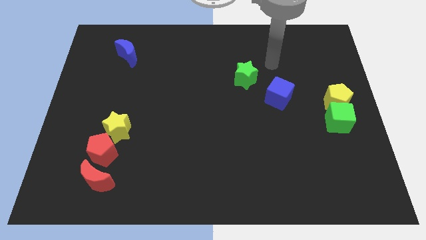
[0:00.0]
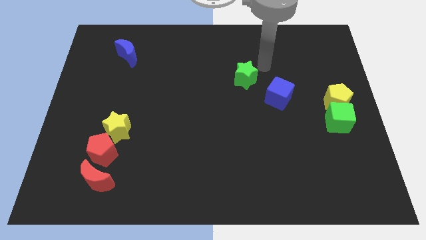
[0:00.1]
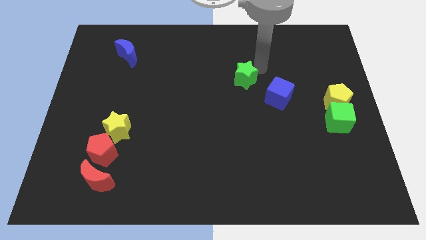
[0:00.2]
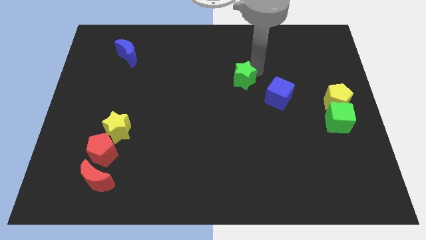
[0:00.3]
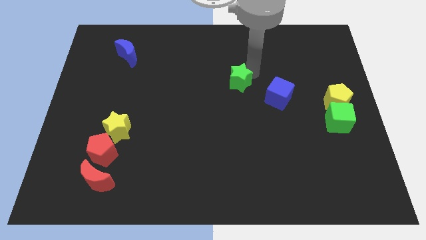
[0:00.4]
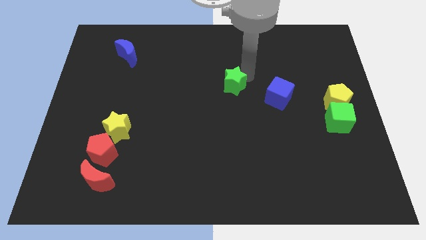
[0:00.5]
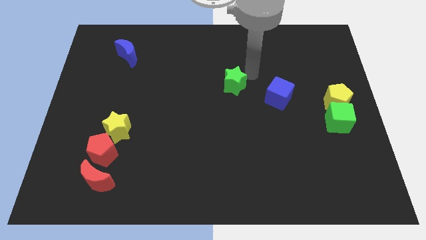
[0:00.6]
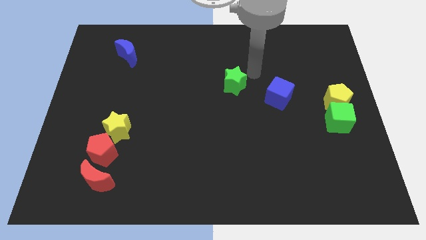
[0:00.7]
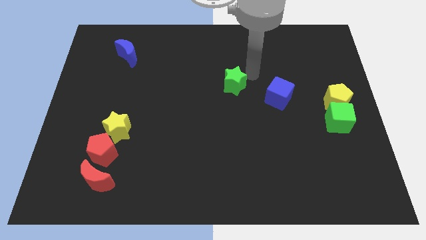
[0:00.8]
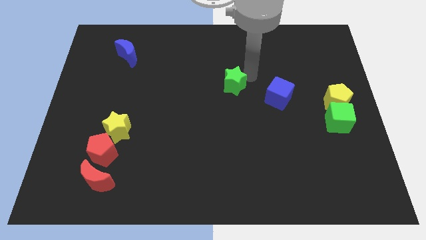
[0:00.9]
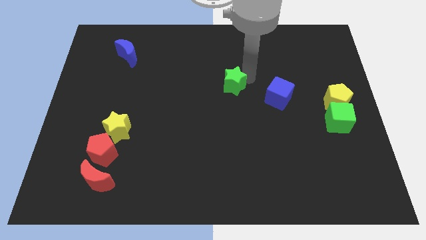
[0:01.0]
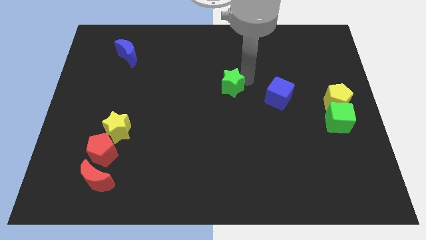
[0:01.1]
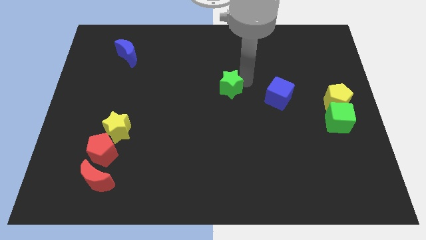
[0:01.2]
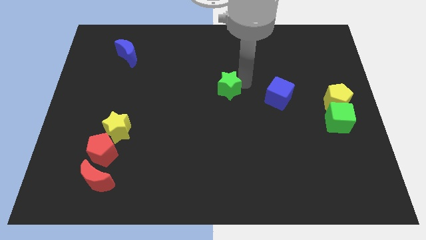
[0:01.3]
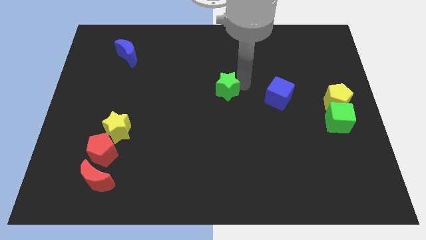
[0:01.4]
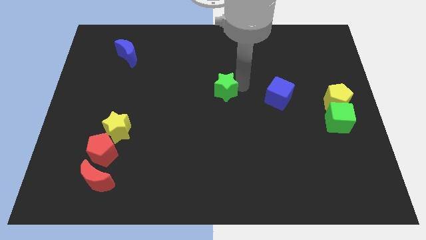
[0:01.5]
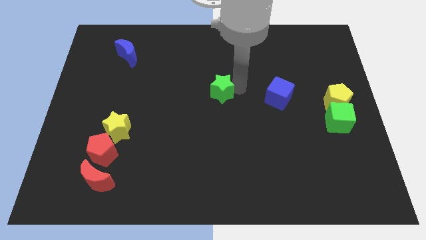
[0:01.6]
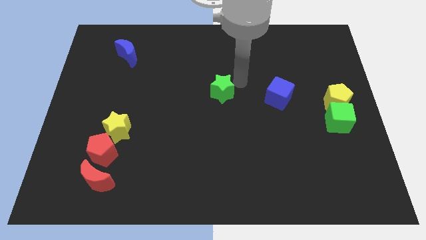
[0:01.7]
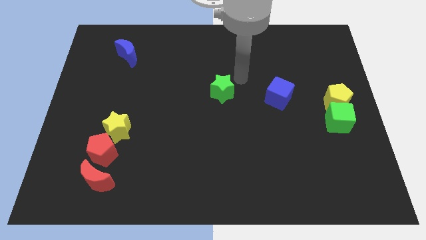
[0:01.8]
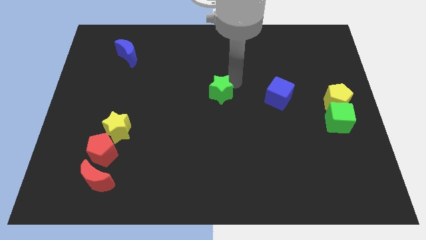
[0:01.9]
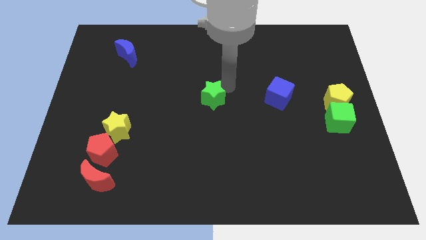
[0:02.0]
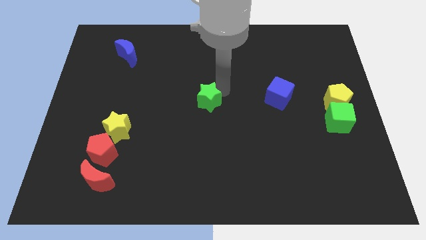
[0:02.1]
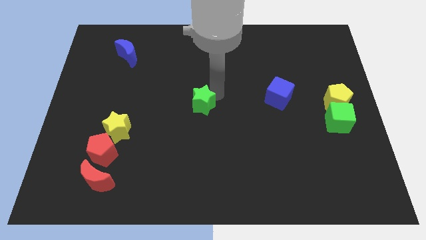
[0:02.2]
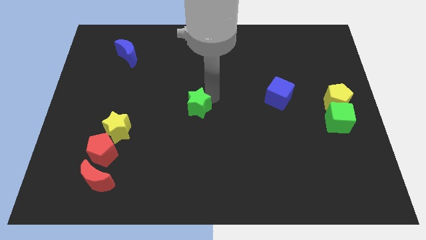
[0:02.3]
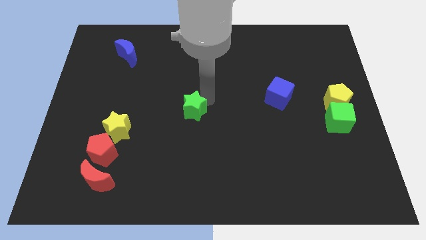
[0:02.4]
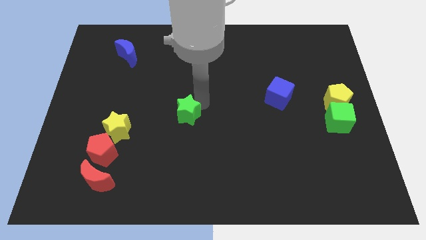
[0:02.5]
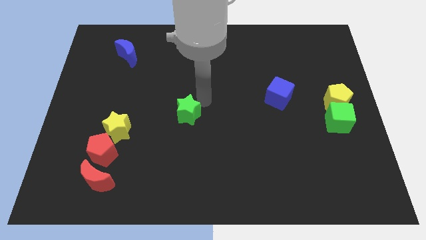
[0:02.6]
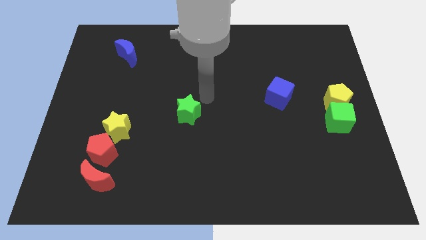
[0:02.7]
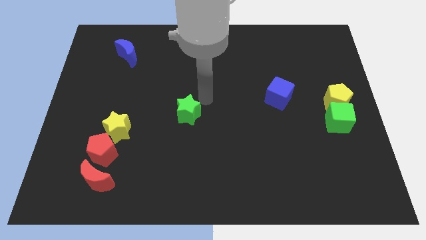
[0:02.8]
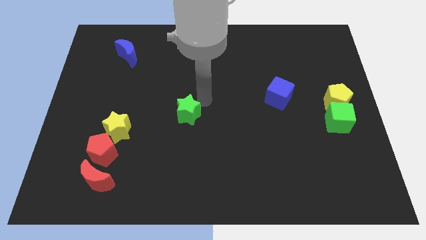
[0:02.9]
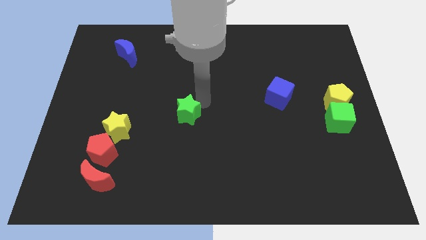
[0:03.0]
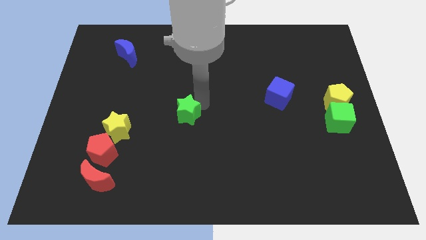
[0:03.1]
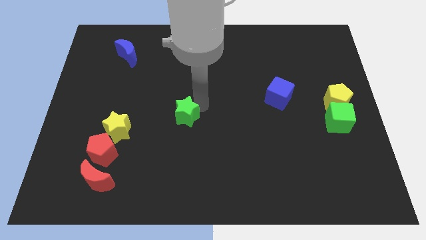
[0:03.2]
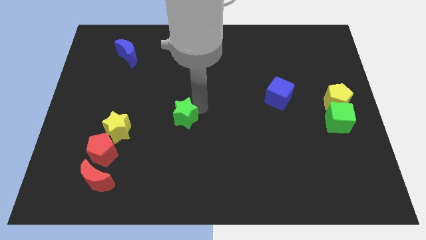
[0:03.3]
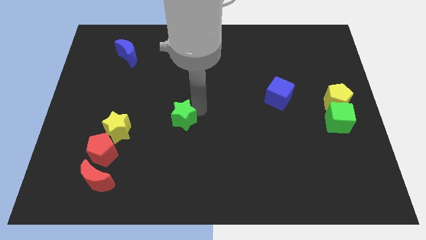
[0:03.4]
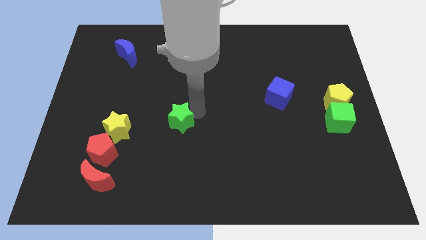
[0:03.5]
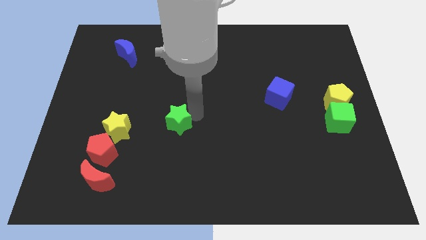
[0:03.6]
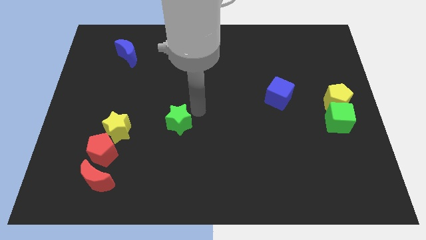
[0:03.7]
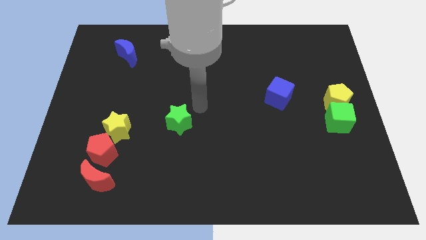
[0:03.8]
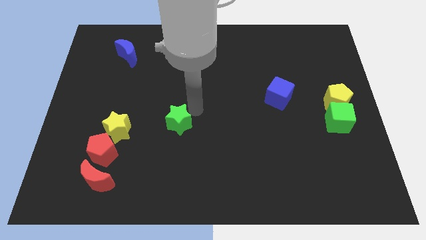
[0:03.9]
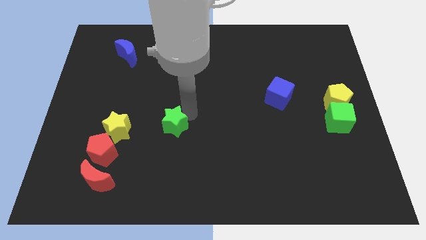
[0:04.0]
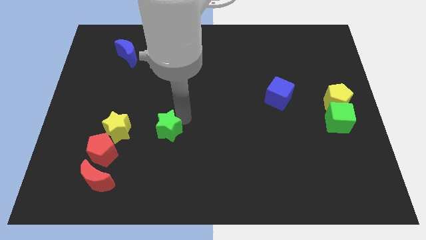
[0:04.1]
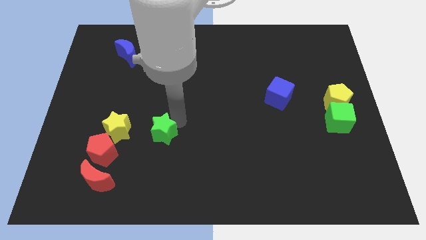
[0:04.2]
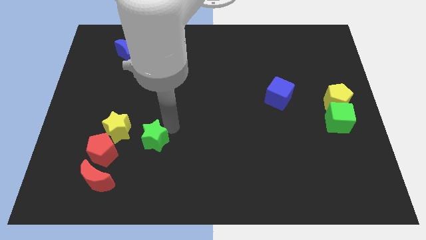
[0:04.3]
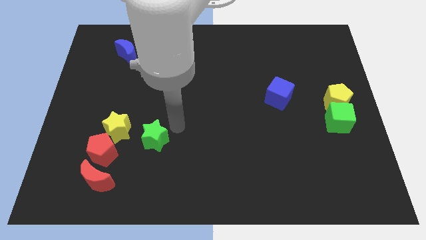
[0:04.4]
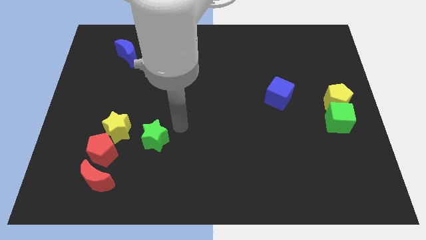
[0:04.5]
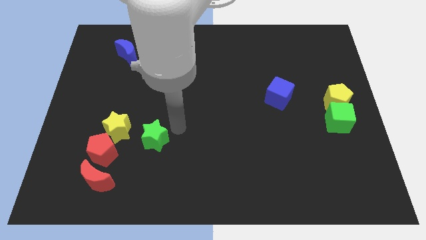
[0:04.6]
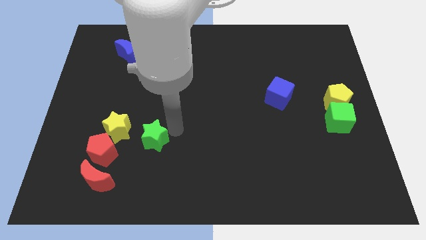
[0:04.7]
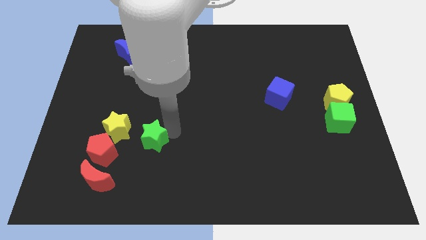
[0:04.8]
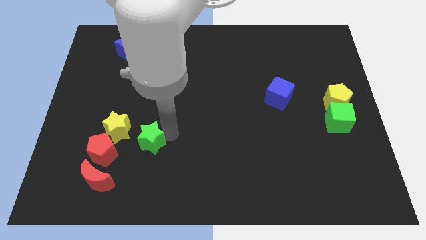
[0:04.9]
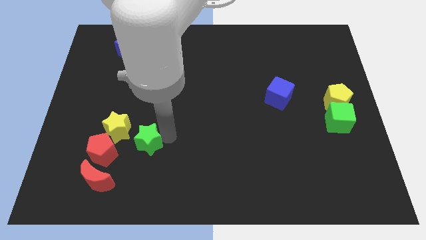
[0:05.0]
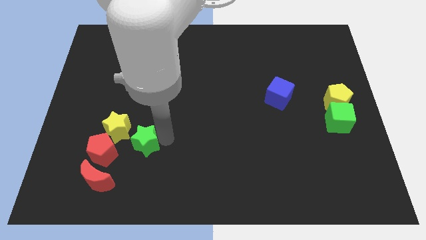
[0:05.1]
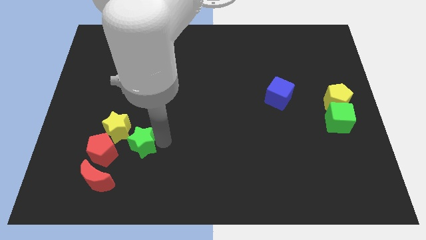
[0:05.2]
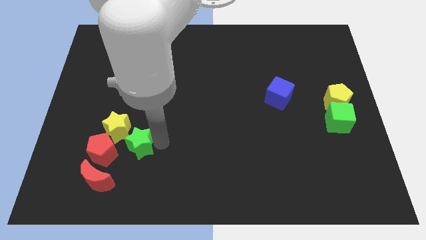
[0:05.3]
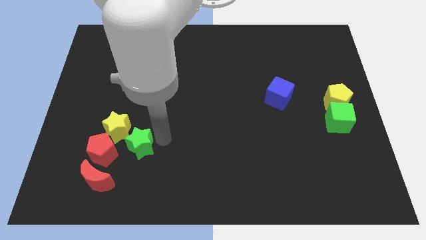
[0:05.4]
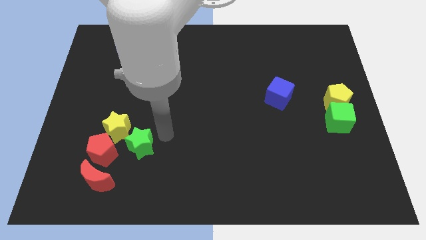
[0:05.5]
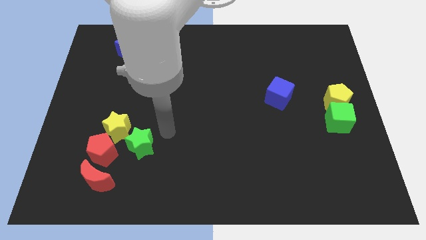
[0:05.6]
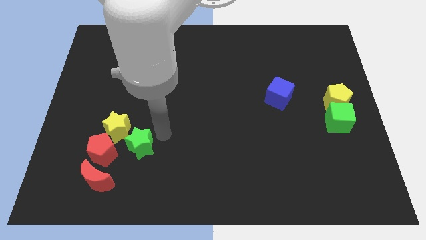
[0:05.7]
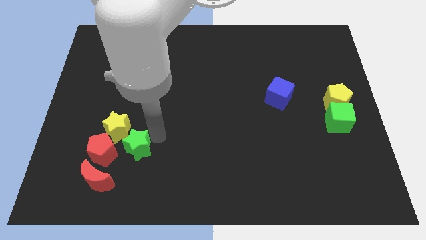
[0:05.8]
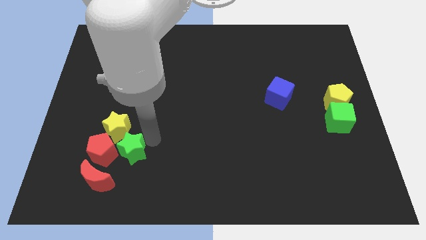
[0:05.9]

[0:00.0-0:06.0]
push the green star next to the red pentagon
